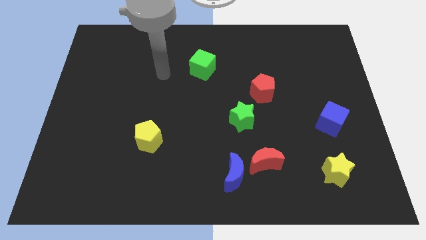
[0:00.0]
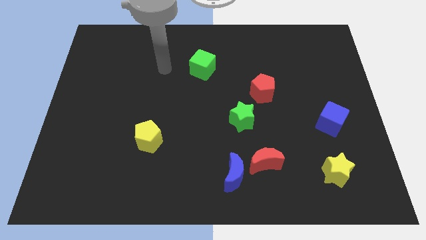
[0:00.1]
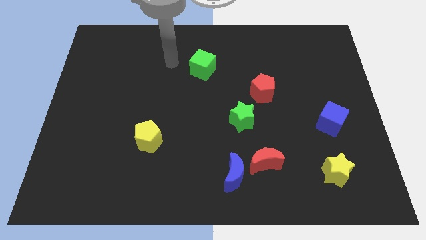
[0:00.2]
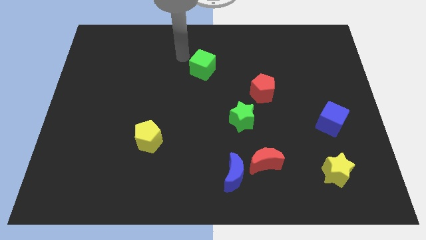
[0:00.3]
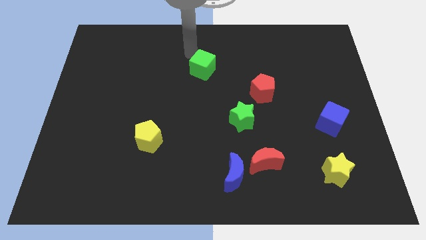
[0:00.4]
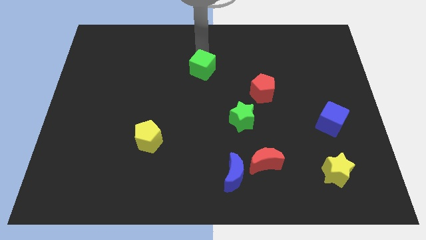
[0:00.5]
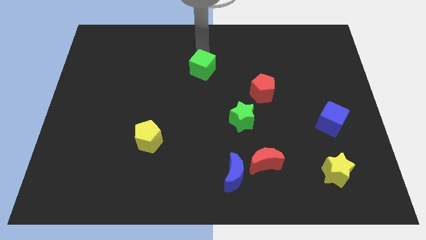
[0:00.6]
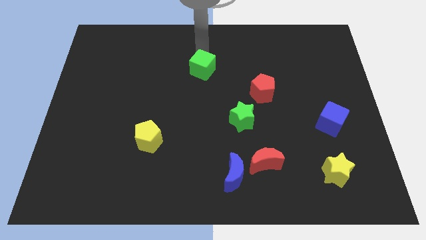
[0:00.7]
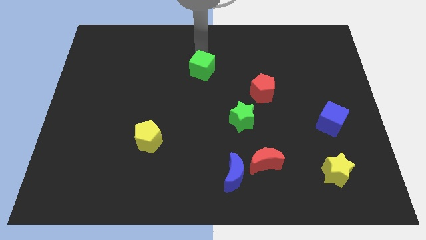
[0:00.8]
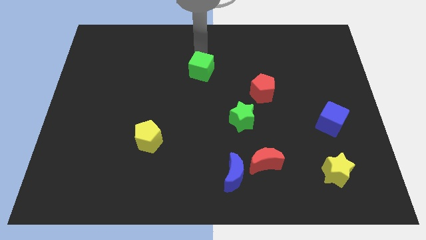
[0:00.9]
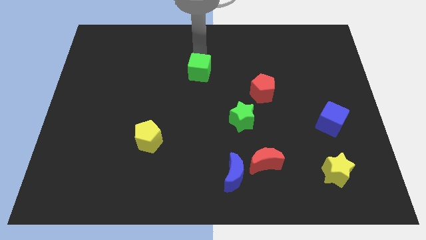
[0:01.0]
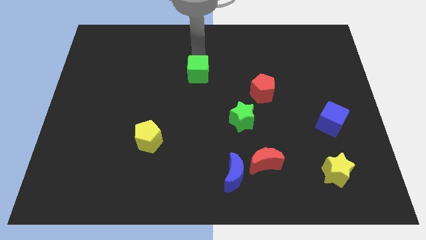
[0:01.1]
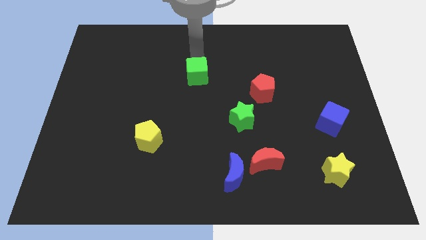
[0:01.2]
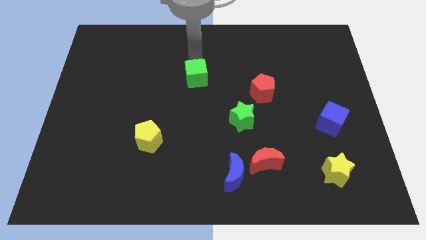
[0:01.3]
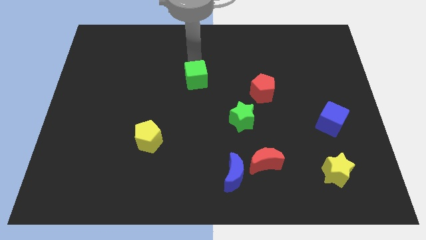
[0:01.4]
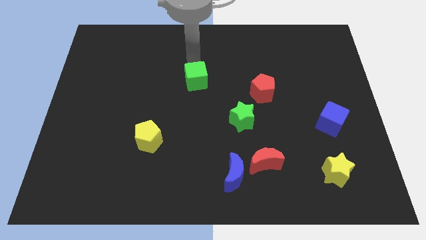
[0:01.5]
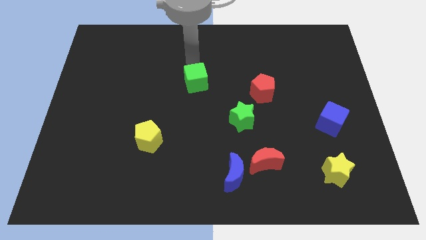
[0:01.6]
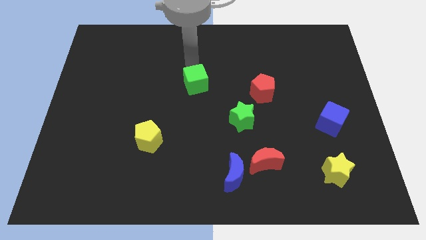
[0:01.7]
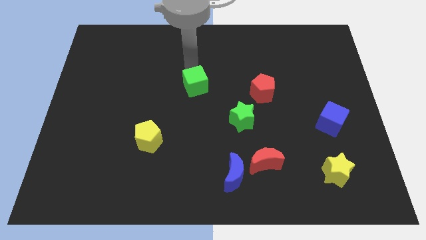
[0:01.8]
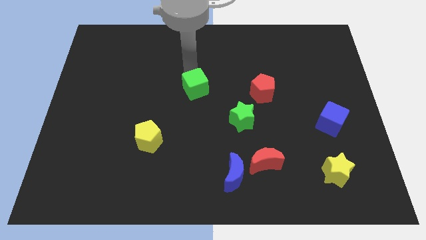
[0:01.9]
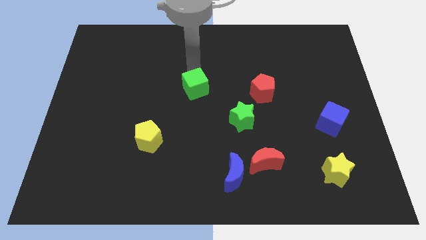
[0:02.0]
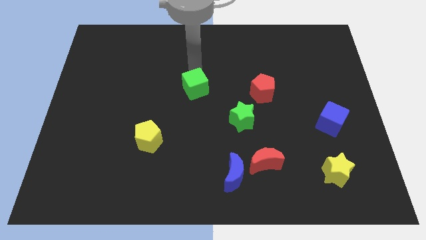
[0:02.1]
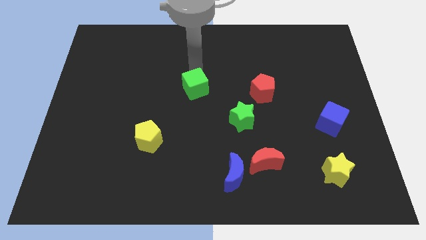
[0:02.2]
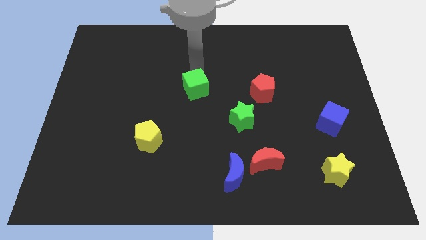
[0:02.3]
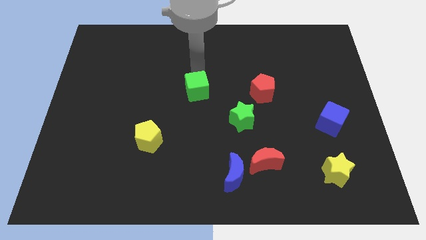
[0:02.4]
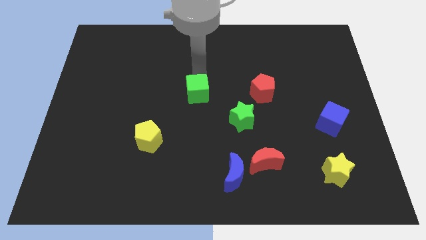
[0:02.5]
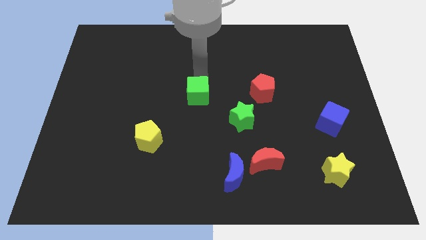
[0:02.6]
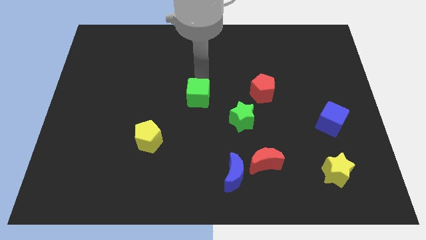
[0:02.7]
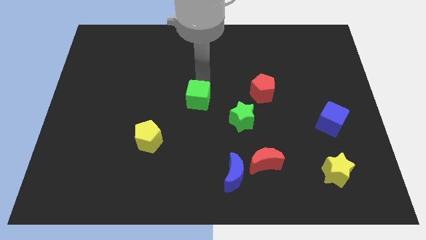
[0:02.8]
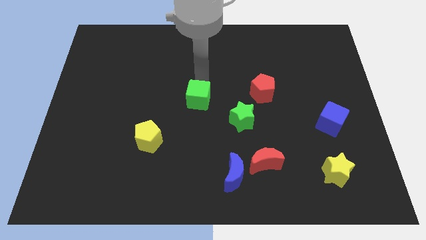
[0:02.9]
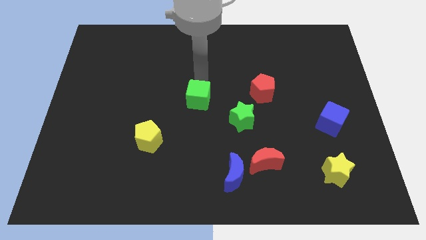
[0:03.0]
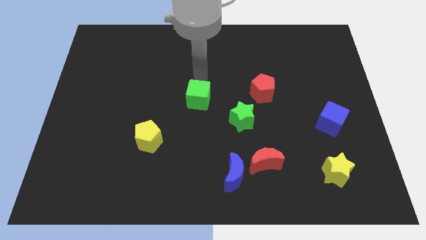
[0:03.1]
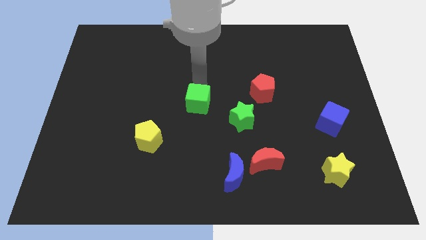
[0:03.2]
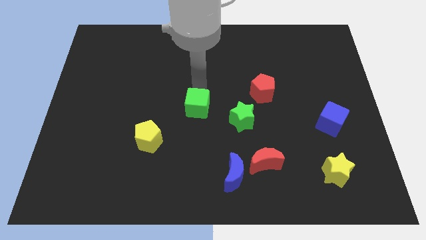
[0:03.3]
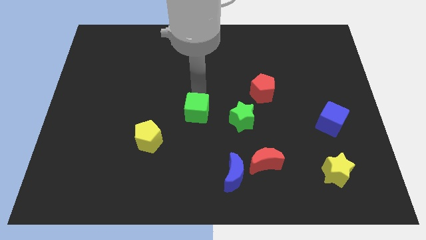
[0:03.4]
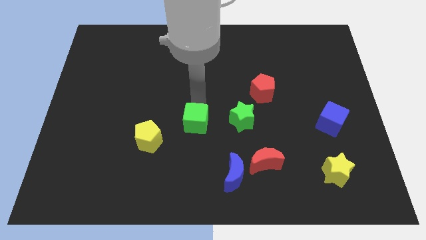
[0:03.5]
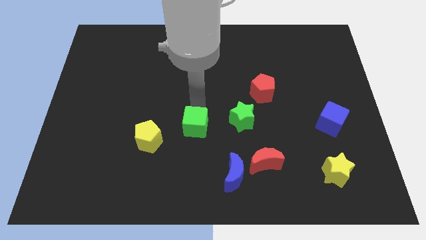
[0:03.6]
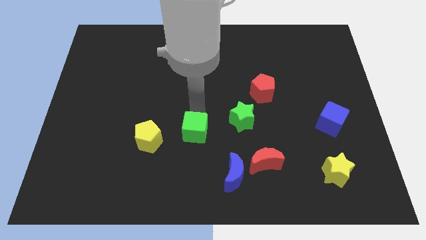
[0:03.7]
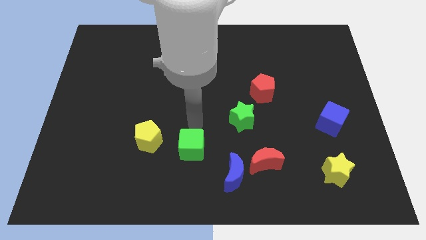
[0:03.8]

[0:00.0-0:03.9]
push the green cube down

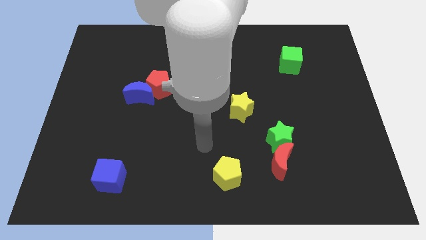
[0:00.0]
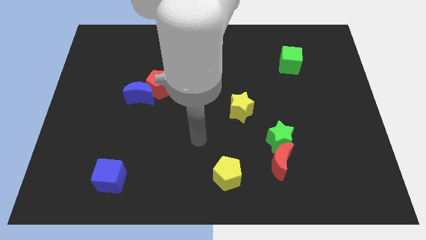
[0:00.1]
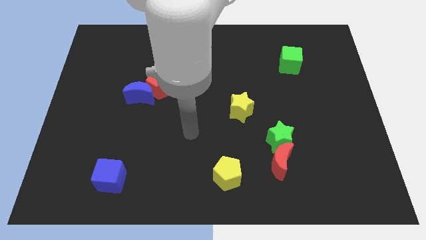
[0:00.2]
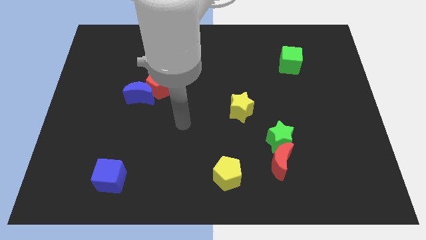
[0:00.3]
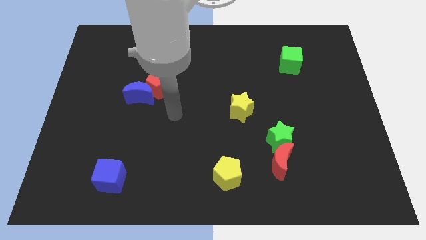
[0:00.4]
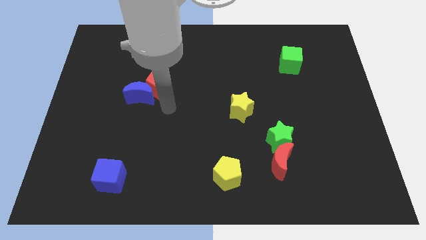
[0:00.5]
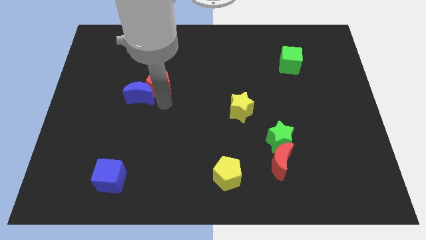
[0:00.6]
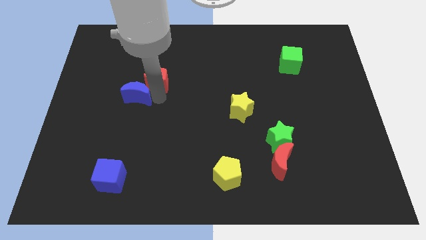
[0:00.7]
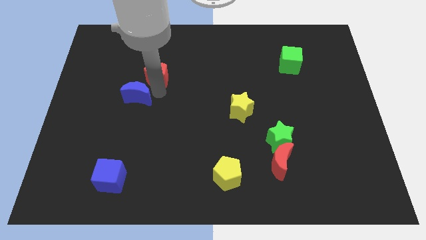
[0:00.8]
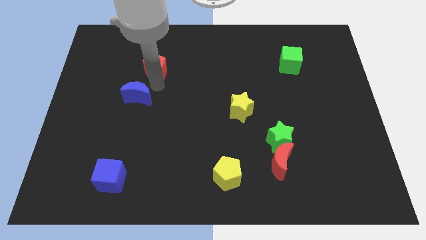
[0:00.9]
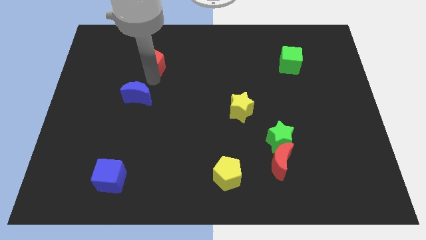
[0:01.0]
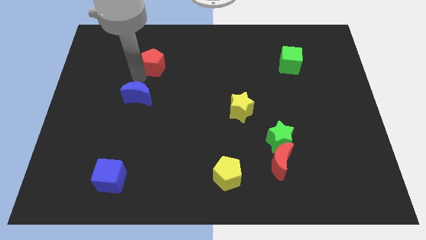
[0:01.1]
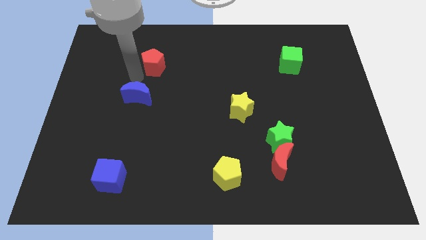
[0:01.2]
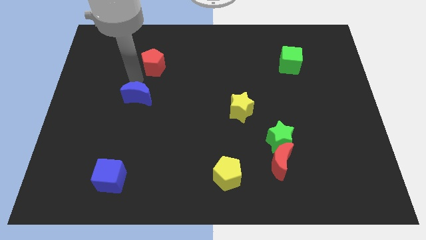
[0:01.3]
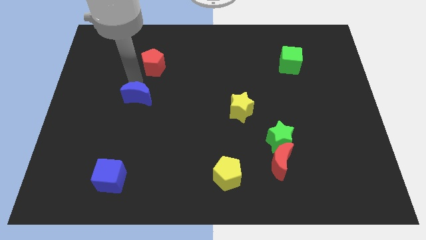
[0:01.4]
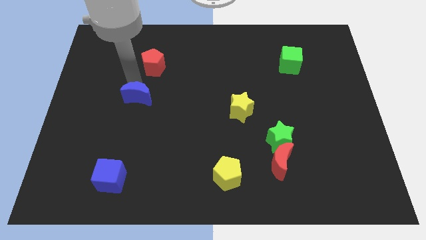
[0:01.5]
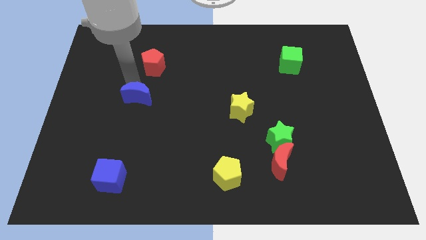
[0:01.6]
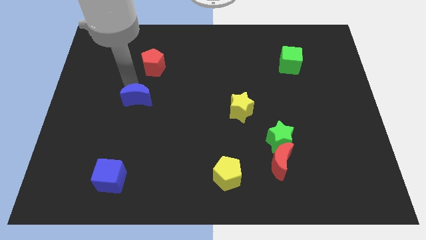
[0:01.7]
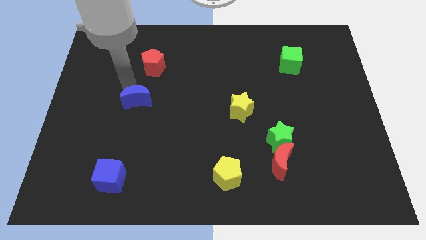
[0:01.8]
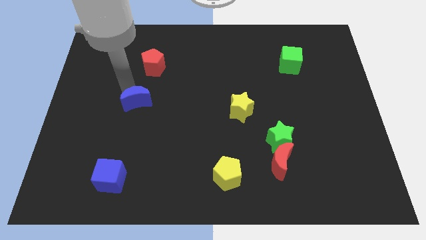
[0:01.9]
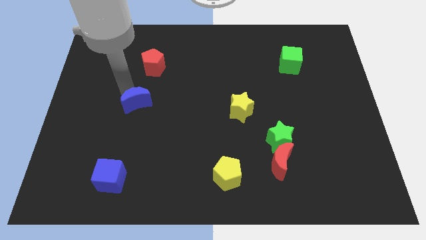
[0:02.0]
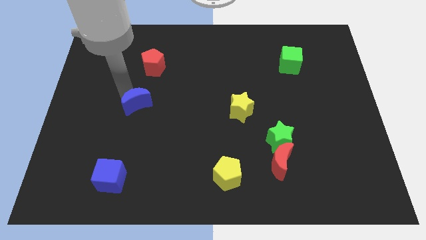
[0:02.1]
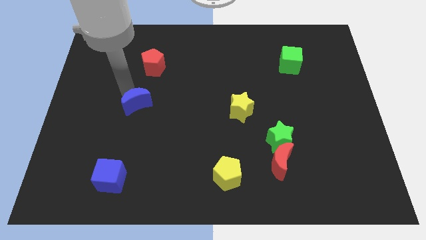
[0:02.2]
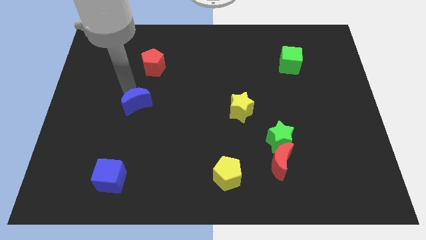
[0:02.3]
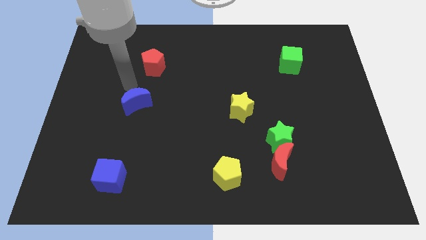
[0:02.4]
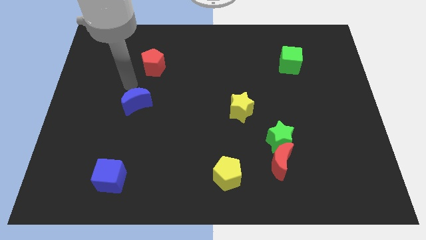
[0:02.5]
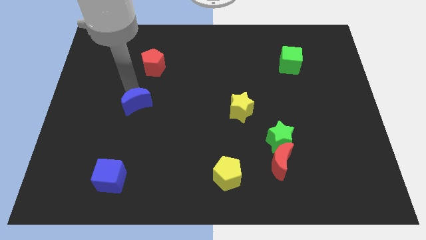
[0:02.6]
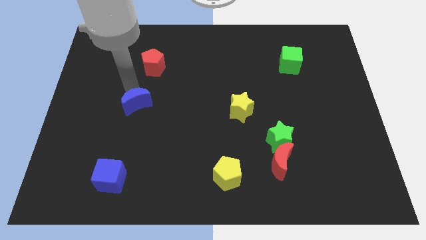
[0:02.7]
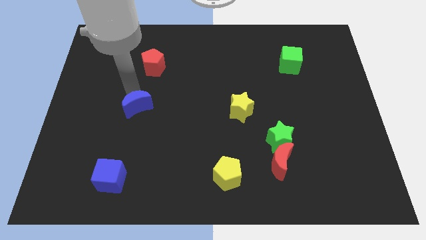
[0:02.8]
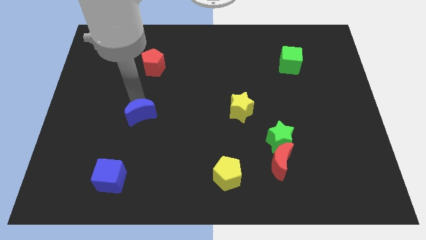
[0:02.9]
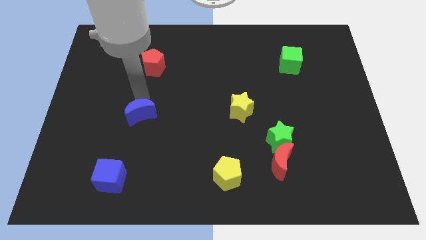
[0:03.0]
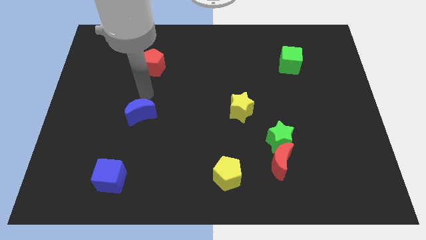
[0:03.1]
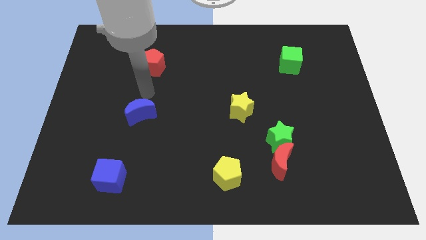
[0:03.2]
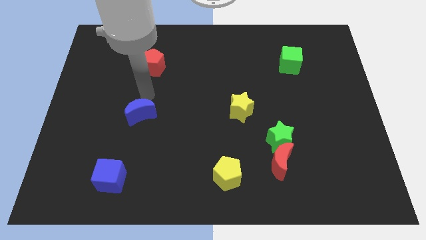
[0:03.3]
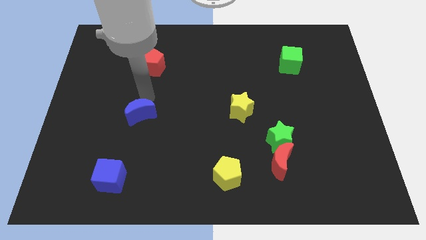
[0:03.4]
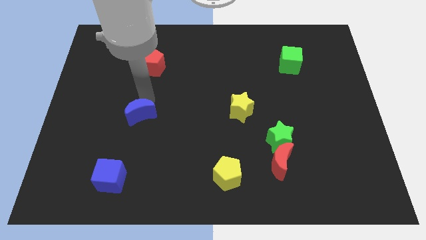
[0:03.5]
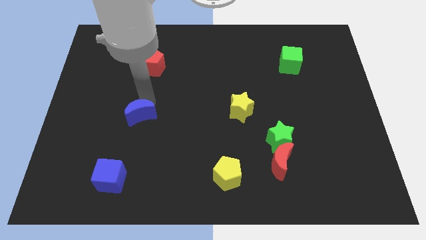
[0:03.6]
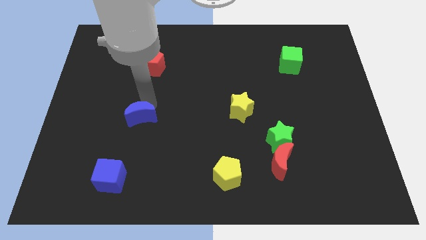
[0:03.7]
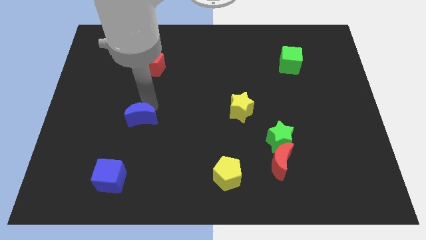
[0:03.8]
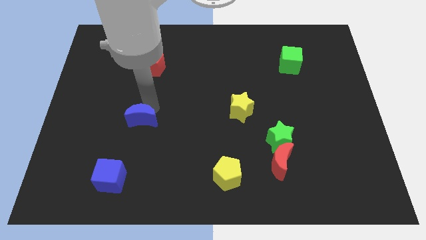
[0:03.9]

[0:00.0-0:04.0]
push the blue moon downwards a little
